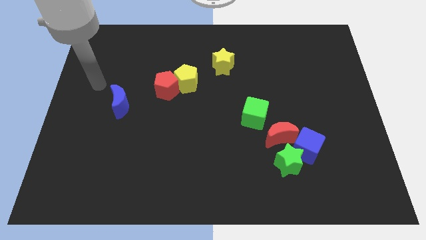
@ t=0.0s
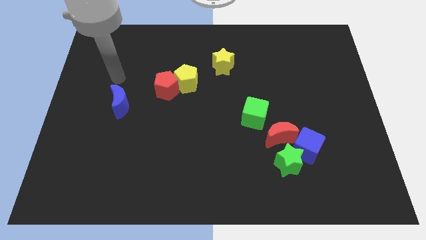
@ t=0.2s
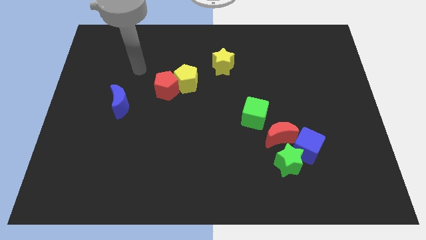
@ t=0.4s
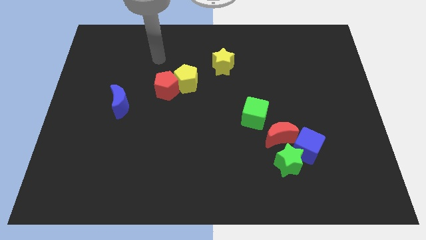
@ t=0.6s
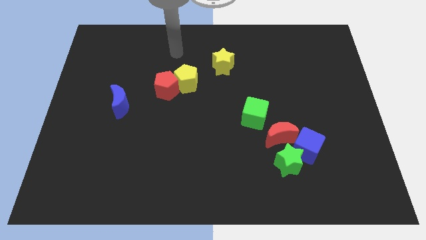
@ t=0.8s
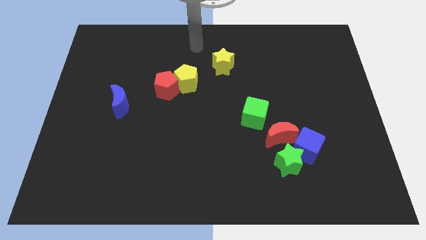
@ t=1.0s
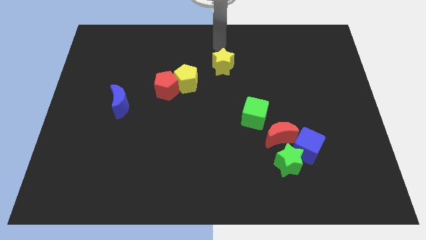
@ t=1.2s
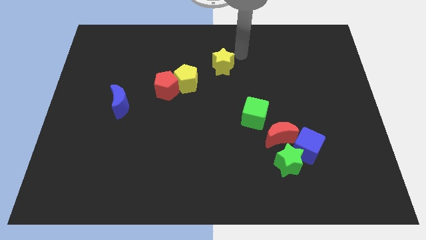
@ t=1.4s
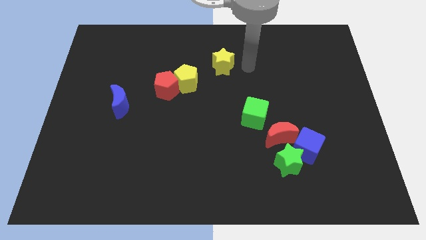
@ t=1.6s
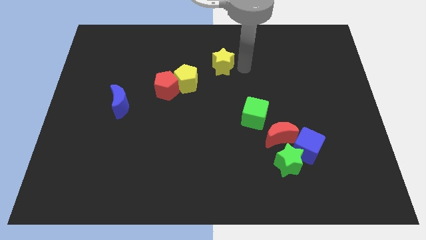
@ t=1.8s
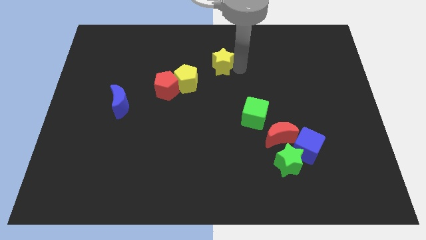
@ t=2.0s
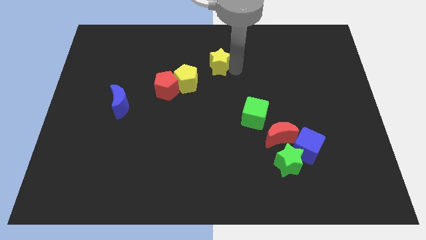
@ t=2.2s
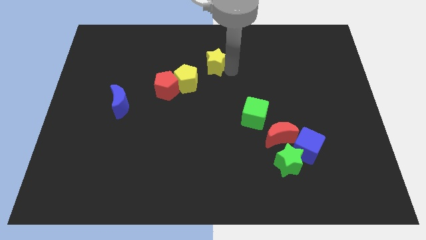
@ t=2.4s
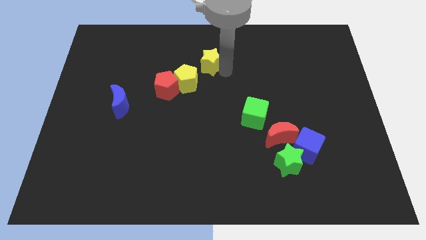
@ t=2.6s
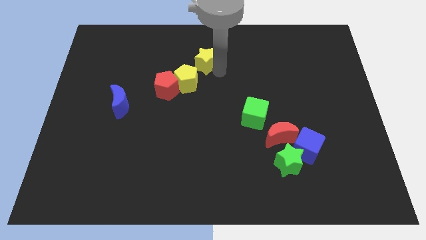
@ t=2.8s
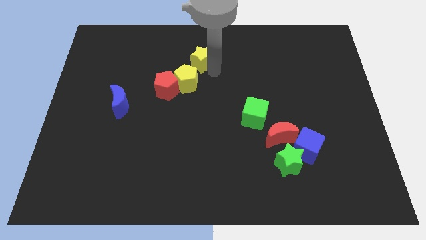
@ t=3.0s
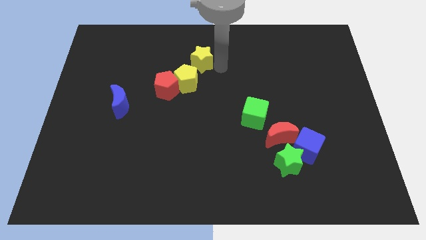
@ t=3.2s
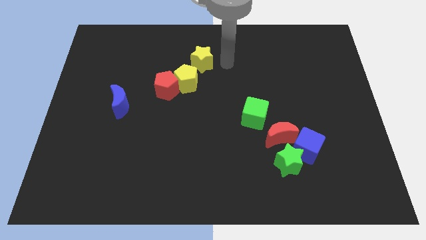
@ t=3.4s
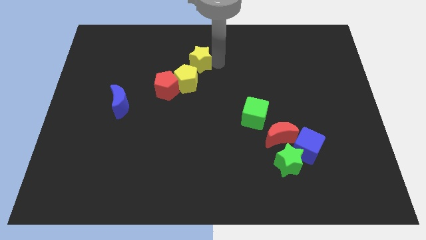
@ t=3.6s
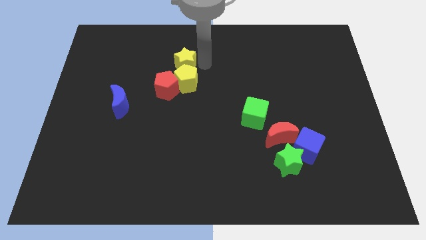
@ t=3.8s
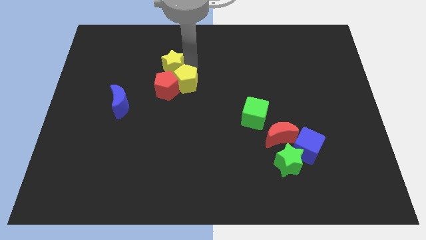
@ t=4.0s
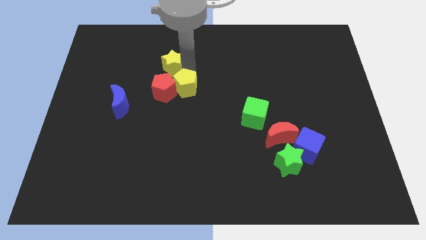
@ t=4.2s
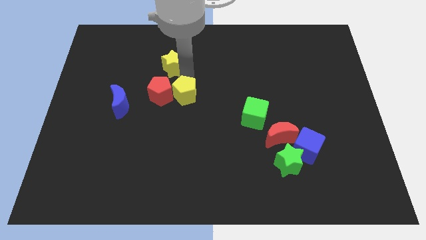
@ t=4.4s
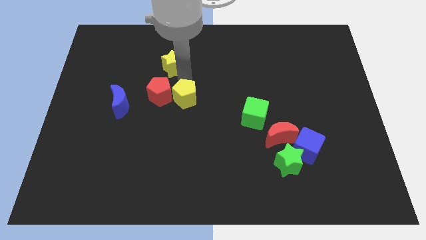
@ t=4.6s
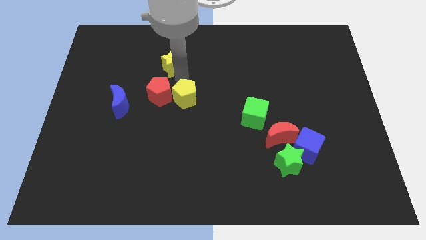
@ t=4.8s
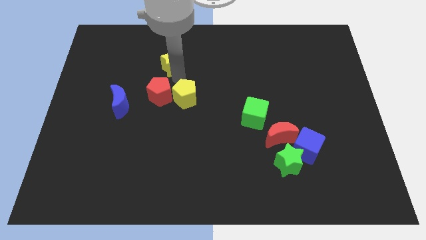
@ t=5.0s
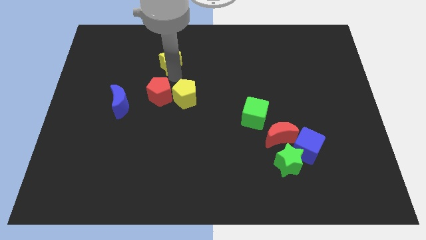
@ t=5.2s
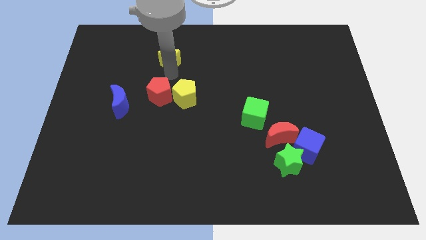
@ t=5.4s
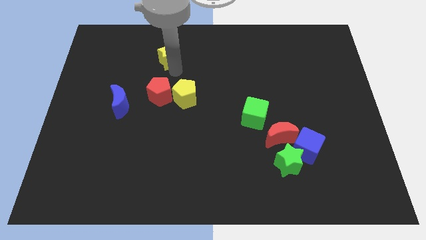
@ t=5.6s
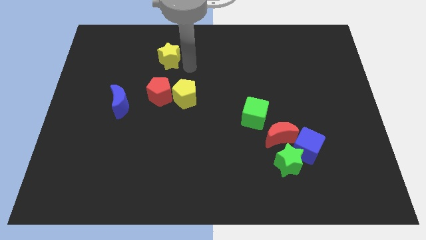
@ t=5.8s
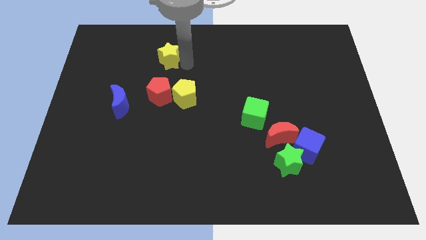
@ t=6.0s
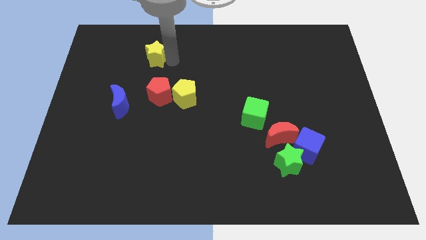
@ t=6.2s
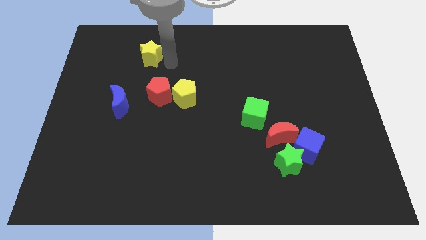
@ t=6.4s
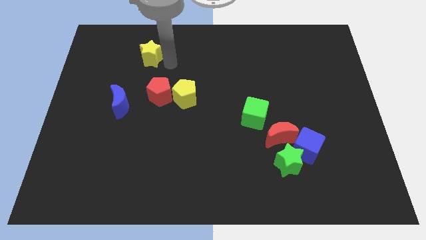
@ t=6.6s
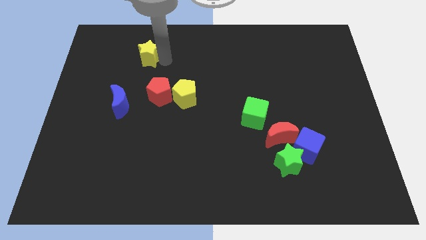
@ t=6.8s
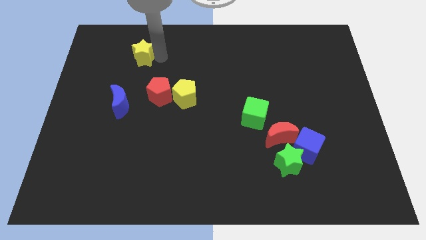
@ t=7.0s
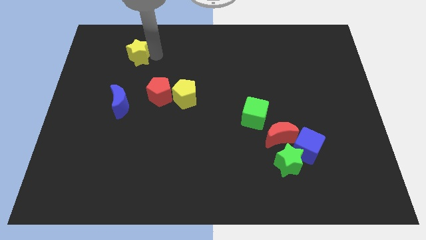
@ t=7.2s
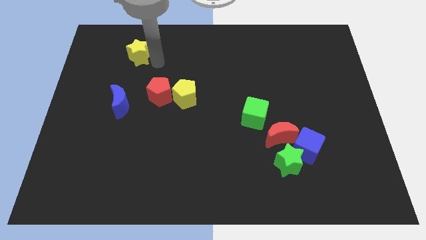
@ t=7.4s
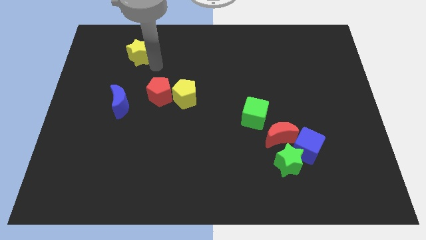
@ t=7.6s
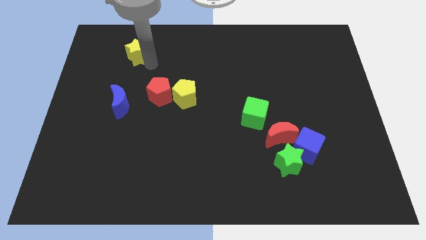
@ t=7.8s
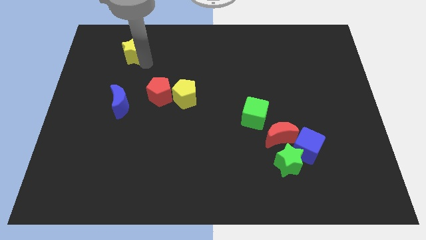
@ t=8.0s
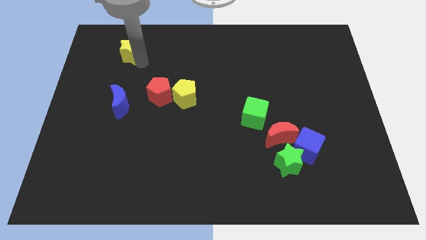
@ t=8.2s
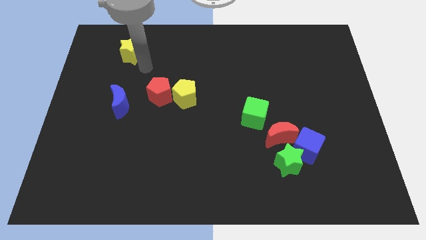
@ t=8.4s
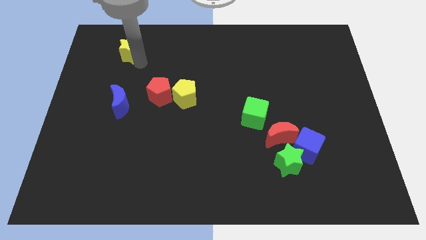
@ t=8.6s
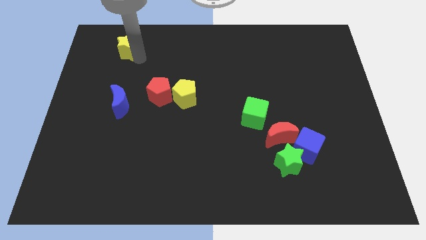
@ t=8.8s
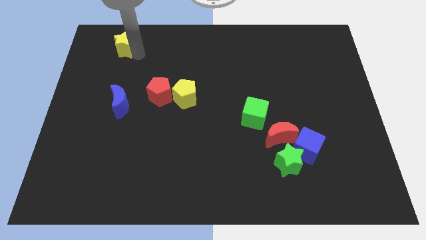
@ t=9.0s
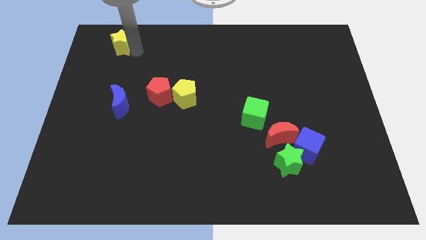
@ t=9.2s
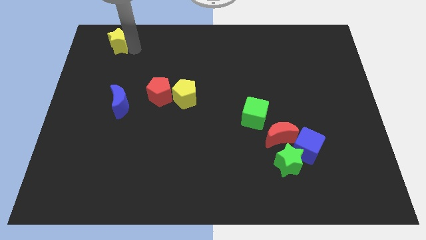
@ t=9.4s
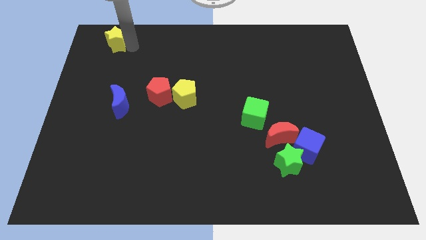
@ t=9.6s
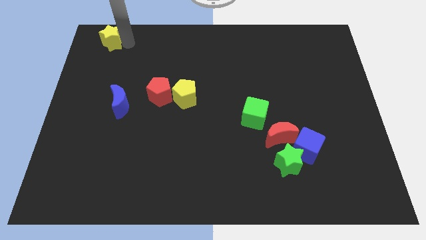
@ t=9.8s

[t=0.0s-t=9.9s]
push the yellow star to the top left

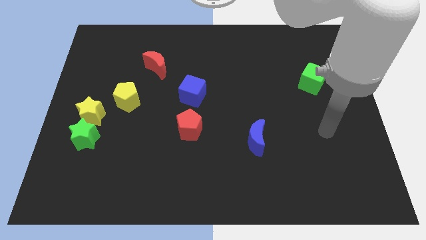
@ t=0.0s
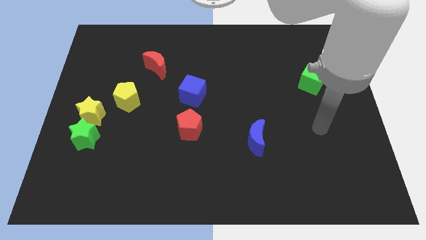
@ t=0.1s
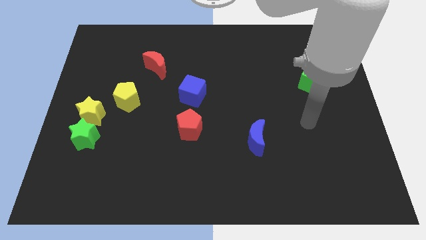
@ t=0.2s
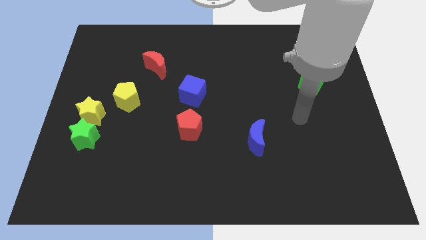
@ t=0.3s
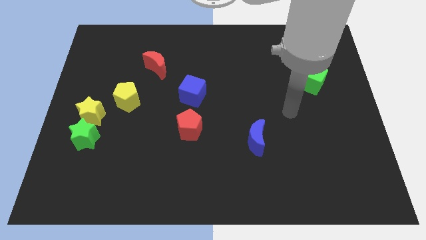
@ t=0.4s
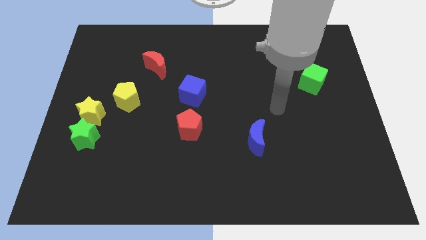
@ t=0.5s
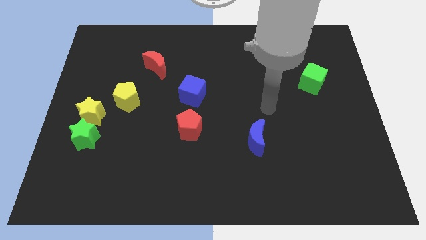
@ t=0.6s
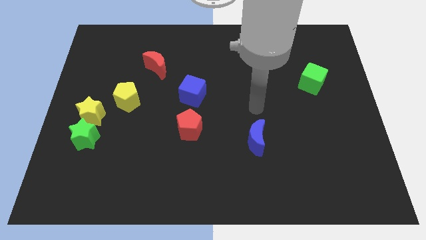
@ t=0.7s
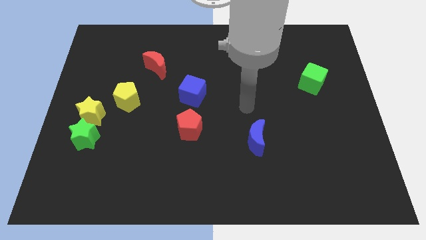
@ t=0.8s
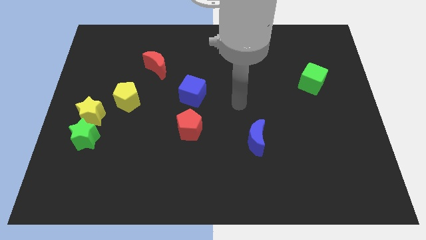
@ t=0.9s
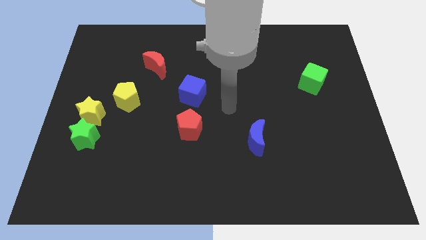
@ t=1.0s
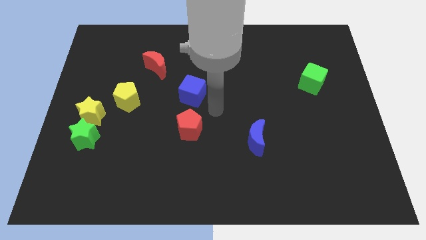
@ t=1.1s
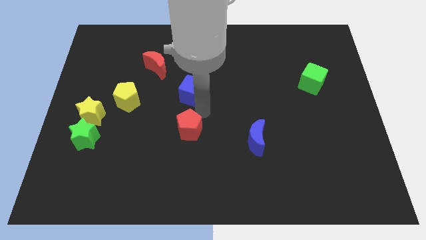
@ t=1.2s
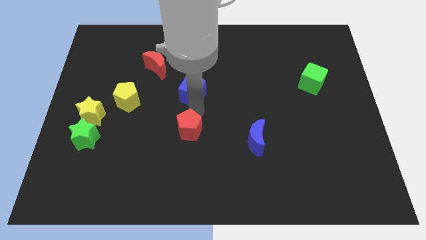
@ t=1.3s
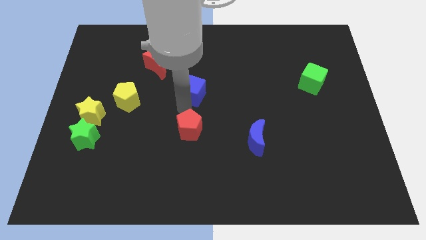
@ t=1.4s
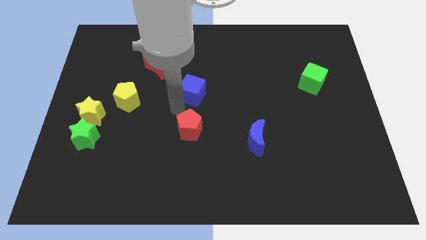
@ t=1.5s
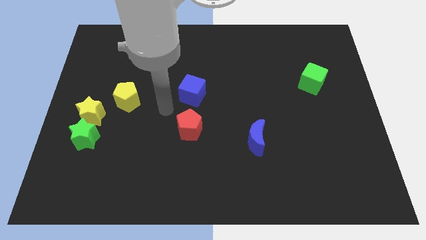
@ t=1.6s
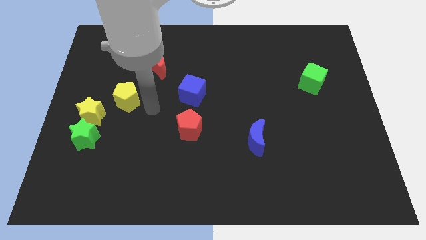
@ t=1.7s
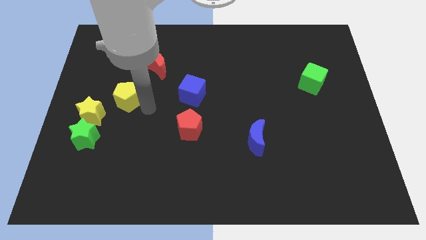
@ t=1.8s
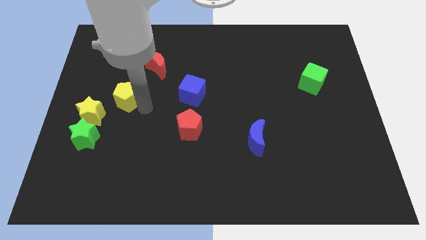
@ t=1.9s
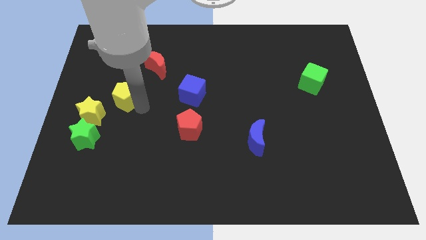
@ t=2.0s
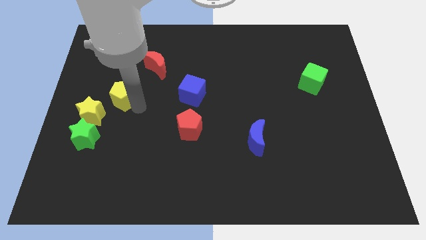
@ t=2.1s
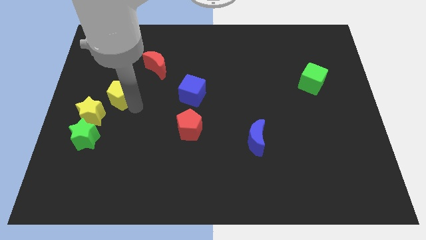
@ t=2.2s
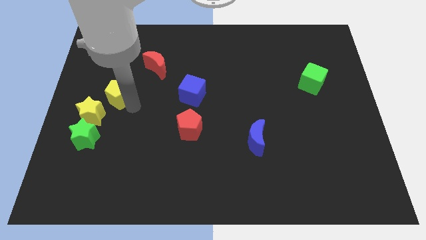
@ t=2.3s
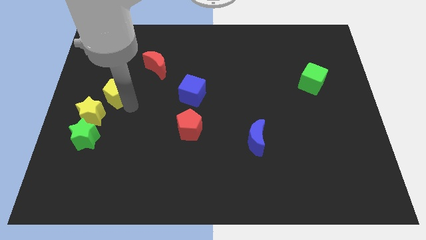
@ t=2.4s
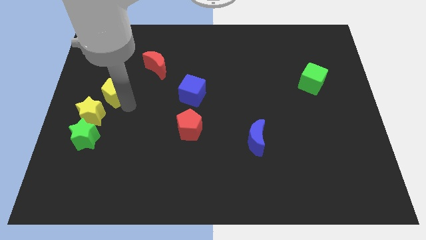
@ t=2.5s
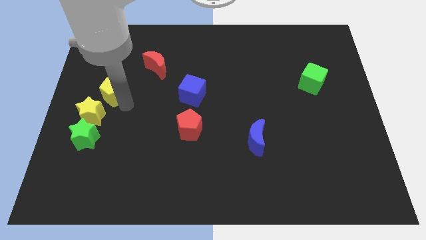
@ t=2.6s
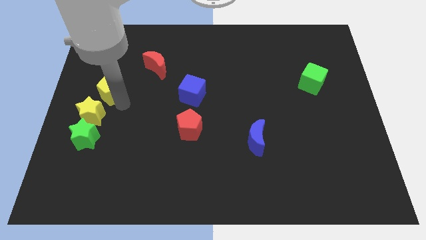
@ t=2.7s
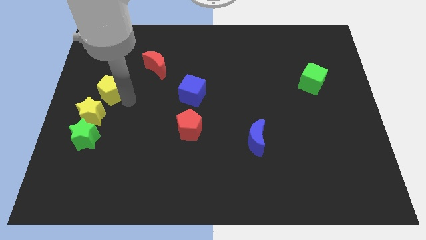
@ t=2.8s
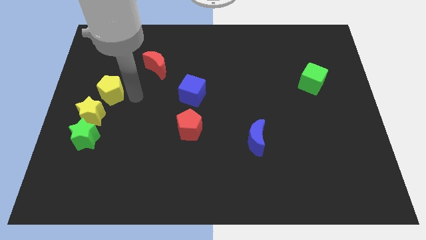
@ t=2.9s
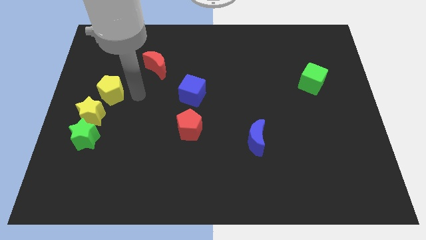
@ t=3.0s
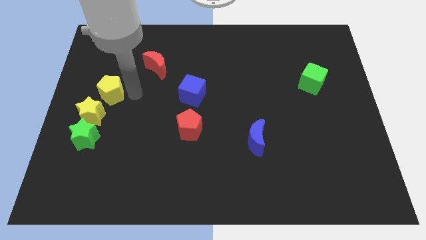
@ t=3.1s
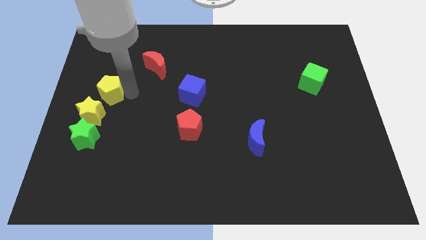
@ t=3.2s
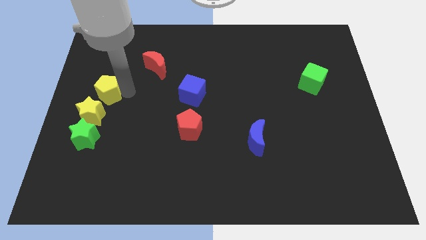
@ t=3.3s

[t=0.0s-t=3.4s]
slide the yellow pentagon to the left side of the board
